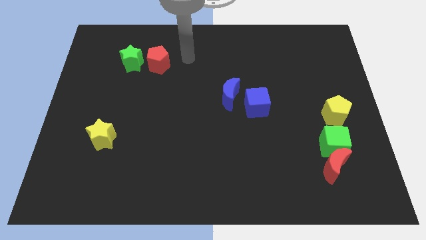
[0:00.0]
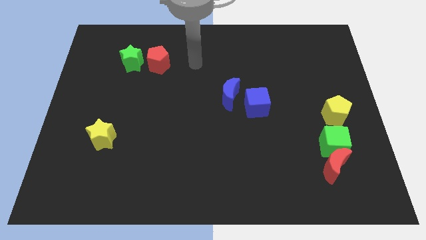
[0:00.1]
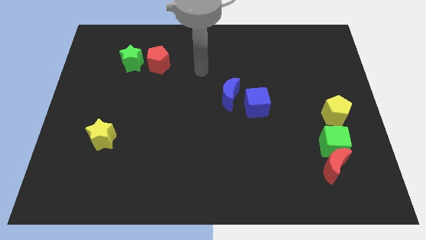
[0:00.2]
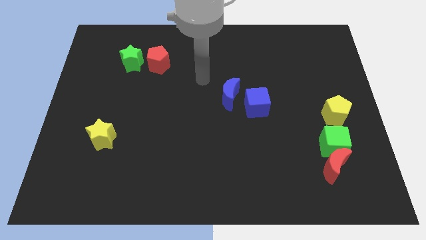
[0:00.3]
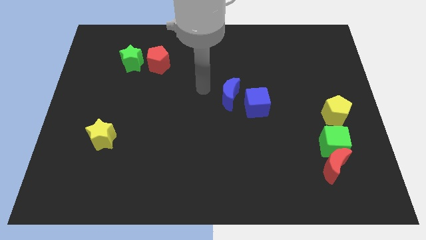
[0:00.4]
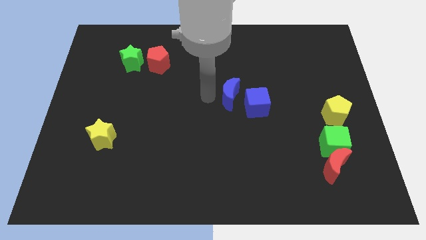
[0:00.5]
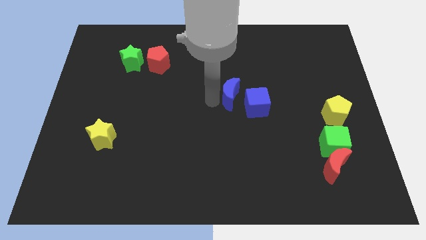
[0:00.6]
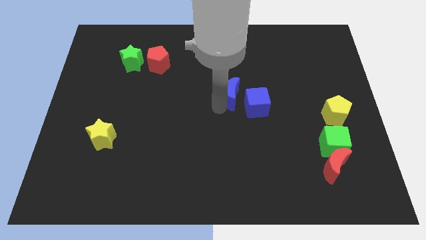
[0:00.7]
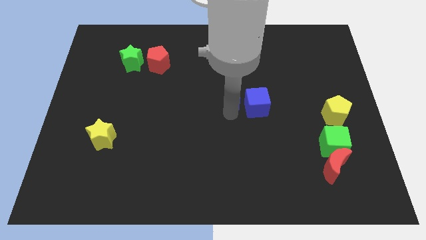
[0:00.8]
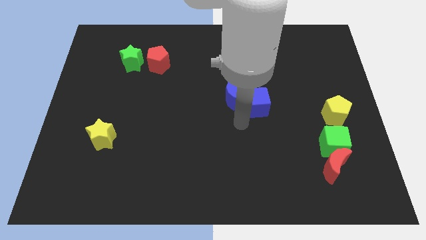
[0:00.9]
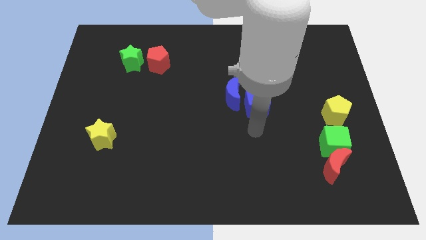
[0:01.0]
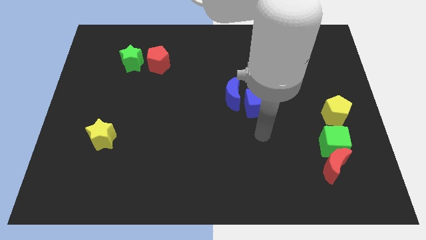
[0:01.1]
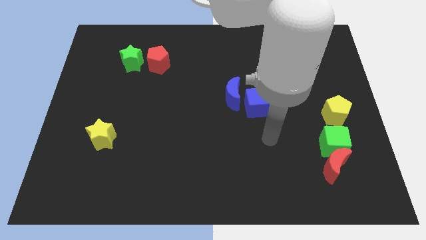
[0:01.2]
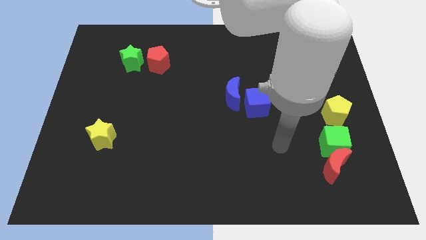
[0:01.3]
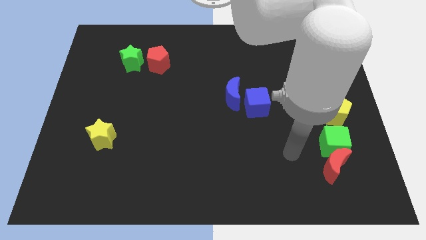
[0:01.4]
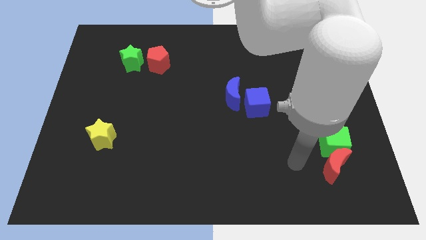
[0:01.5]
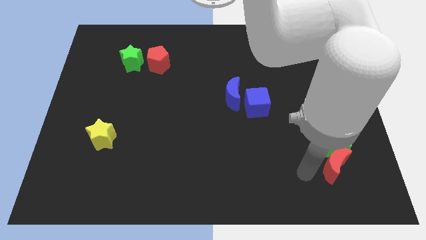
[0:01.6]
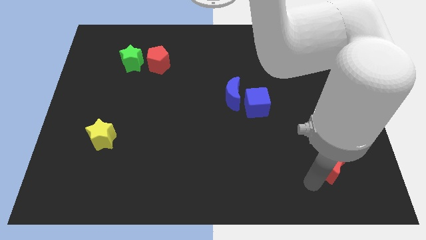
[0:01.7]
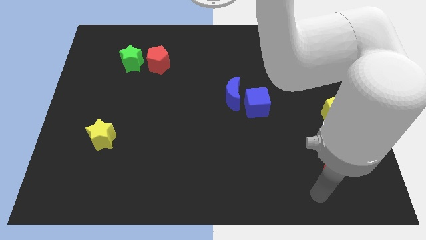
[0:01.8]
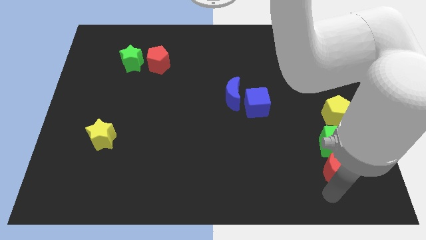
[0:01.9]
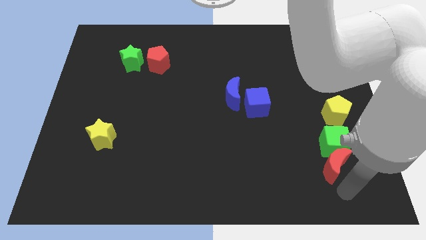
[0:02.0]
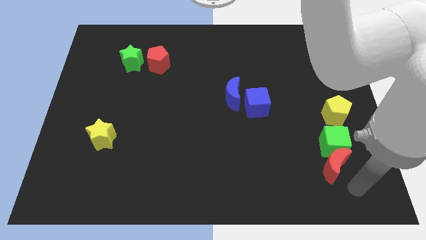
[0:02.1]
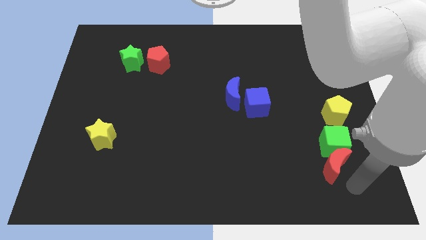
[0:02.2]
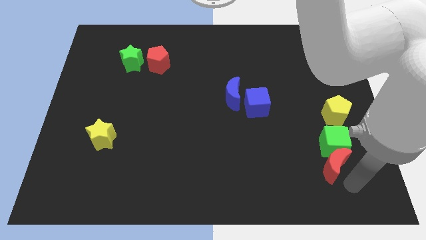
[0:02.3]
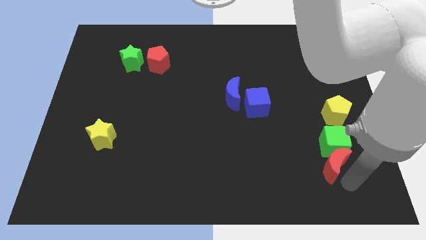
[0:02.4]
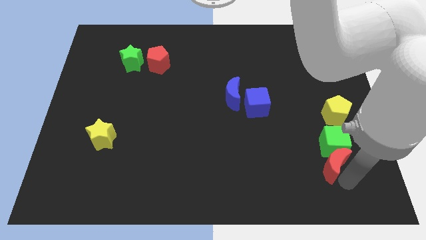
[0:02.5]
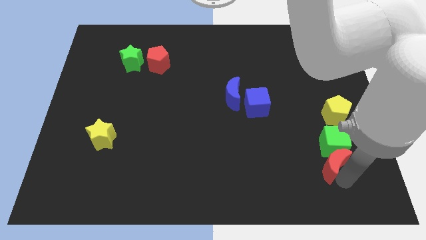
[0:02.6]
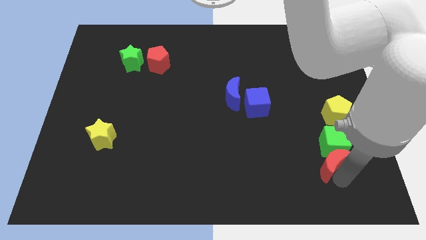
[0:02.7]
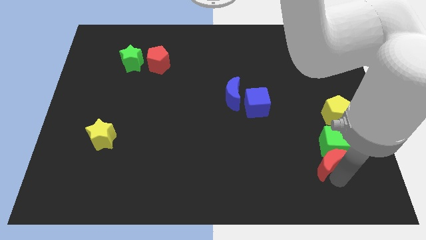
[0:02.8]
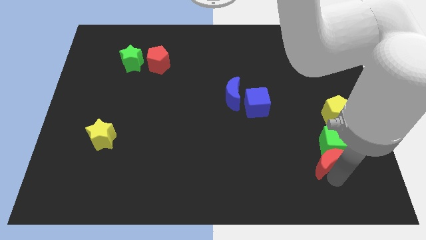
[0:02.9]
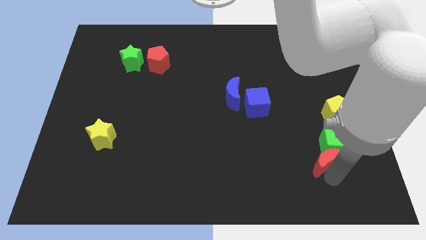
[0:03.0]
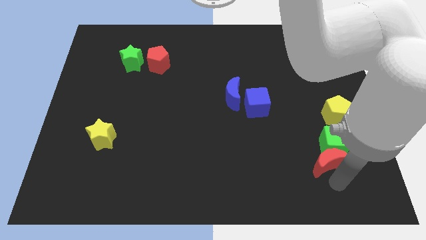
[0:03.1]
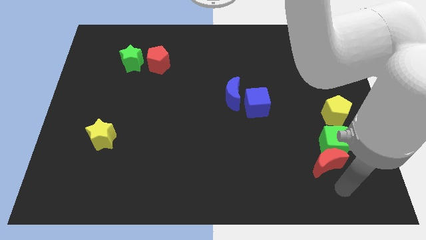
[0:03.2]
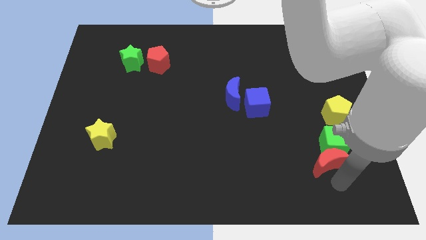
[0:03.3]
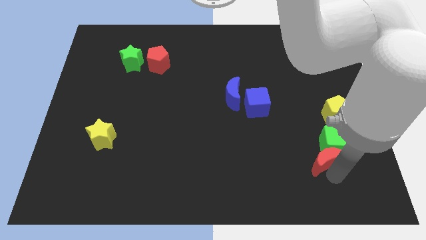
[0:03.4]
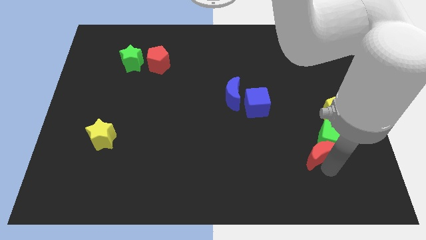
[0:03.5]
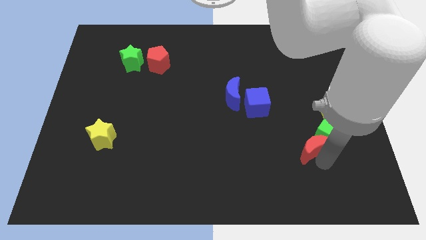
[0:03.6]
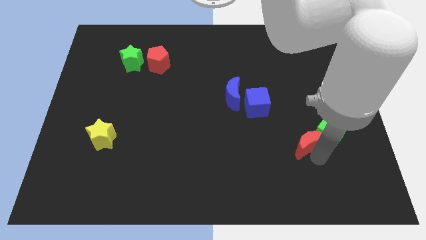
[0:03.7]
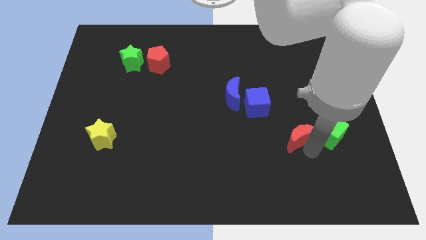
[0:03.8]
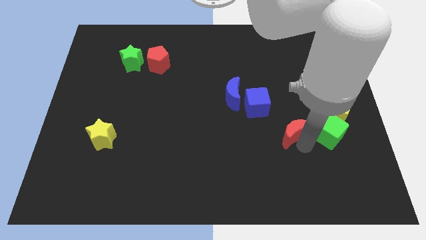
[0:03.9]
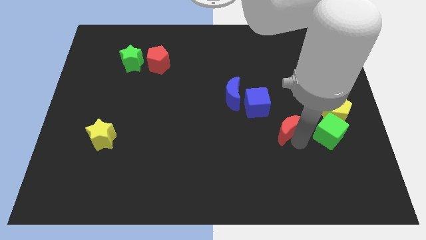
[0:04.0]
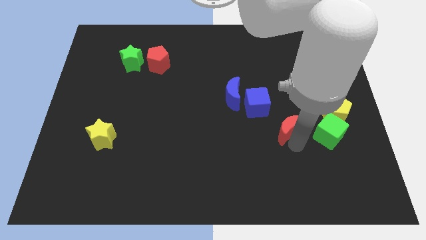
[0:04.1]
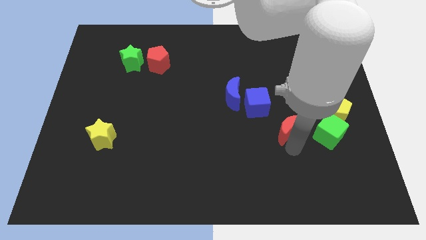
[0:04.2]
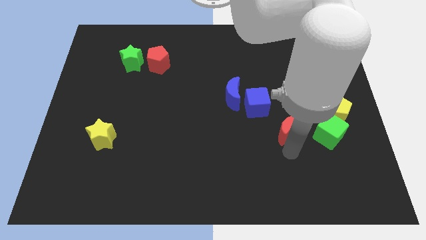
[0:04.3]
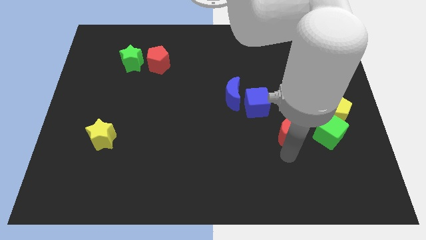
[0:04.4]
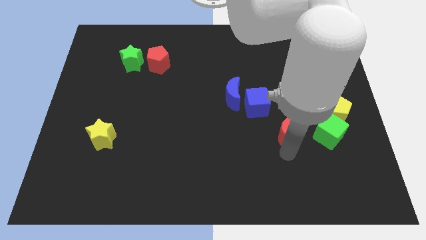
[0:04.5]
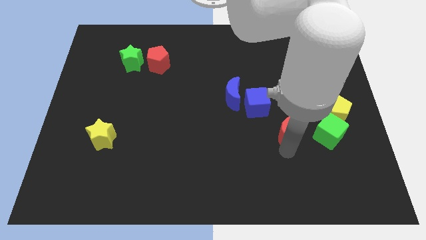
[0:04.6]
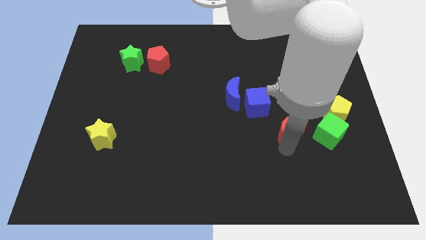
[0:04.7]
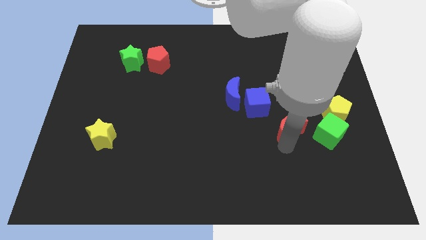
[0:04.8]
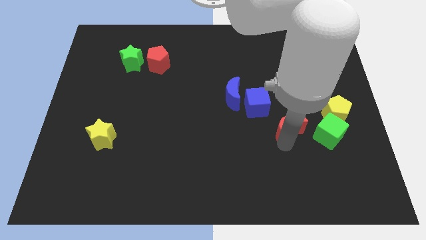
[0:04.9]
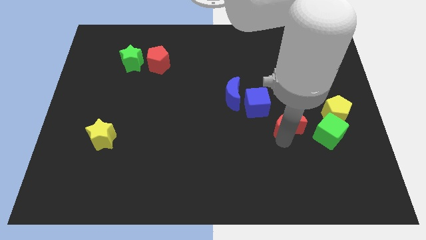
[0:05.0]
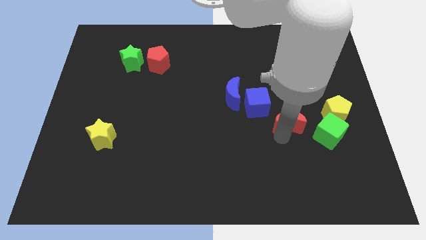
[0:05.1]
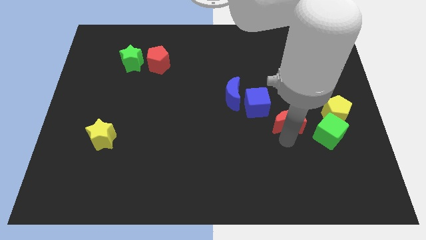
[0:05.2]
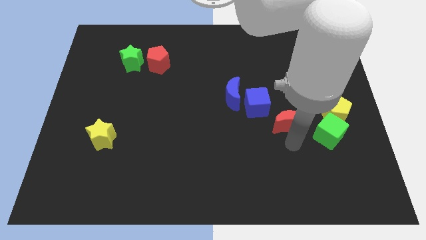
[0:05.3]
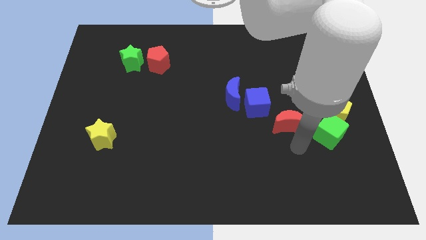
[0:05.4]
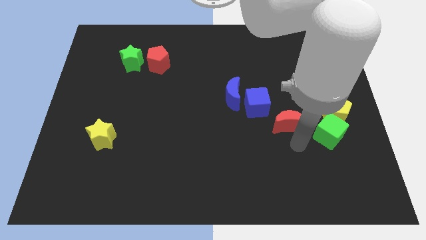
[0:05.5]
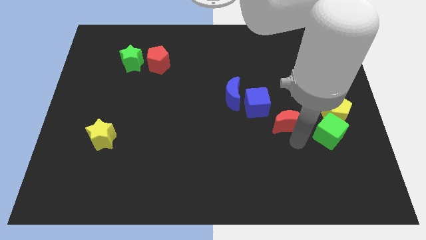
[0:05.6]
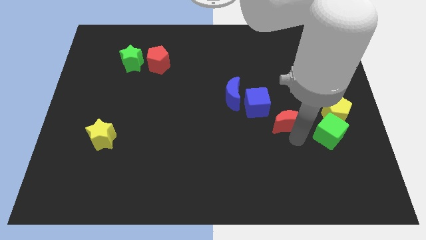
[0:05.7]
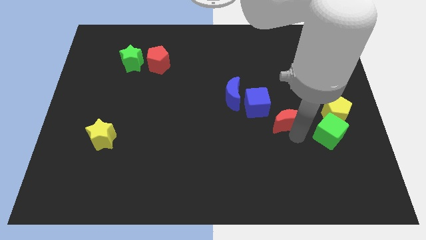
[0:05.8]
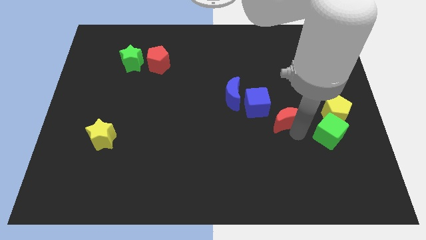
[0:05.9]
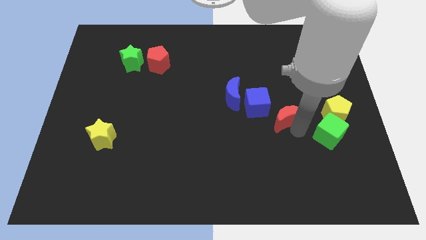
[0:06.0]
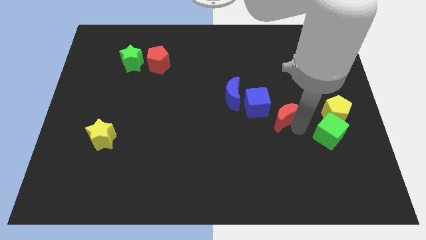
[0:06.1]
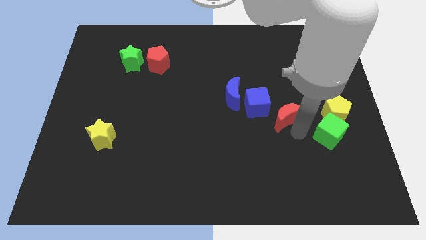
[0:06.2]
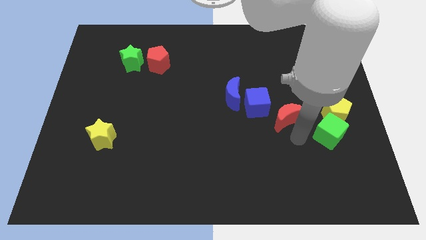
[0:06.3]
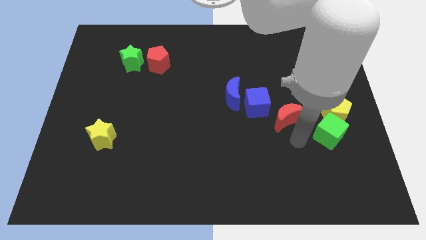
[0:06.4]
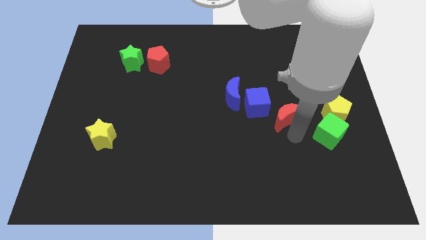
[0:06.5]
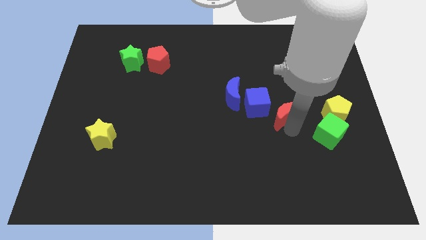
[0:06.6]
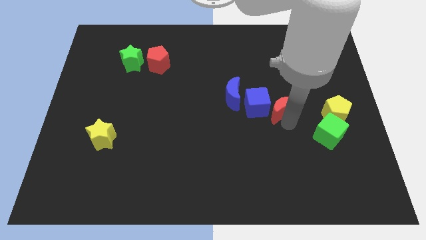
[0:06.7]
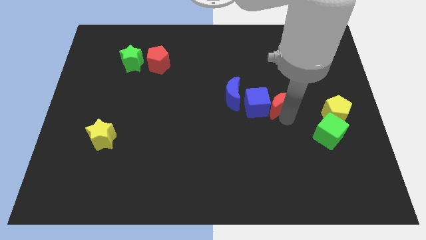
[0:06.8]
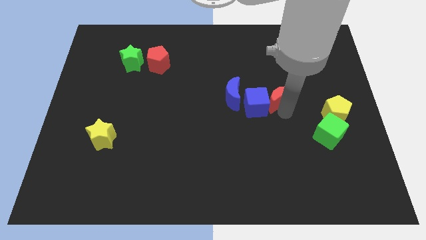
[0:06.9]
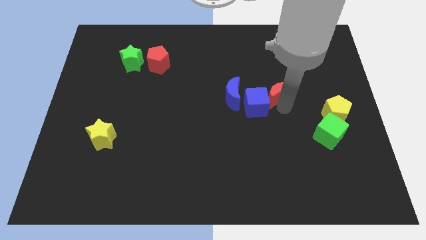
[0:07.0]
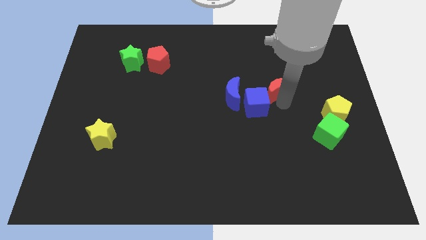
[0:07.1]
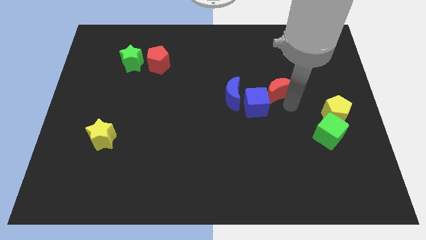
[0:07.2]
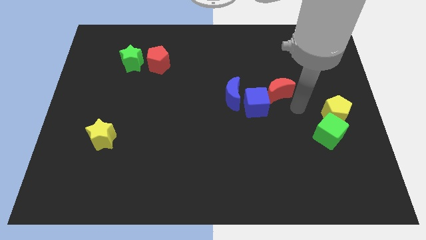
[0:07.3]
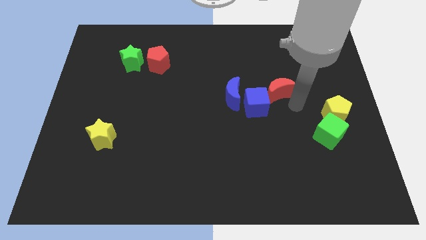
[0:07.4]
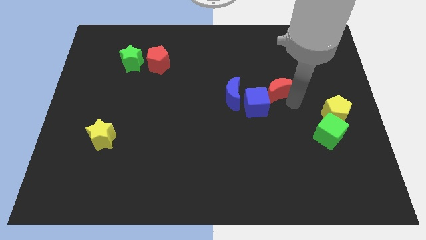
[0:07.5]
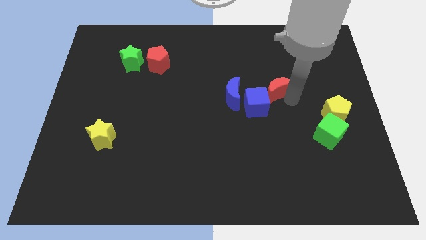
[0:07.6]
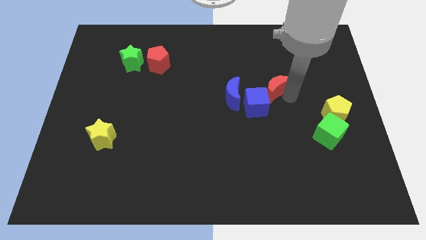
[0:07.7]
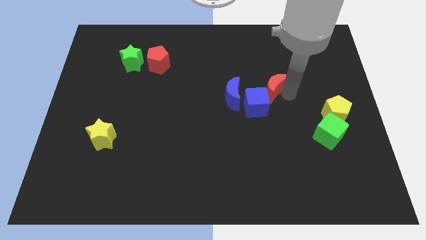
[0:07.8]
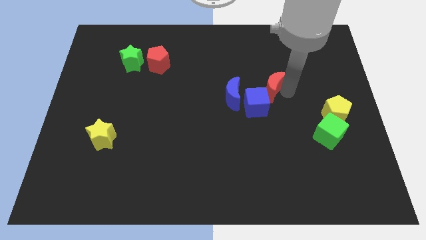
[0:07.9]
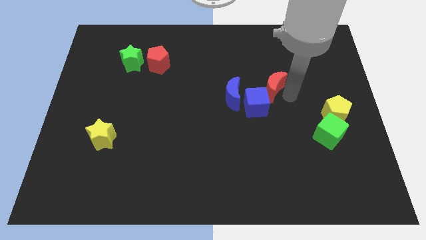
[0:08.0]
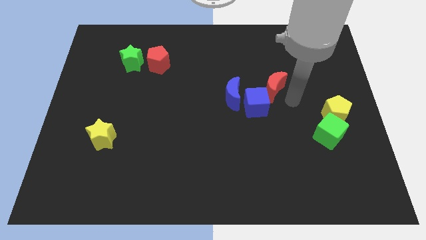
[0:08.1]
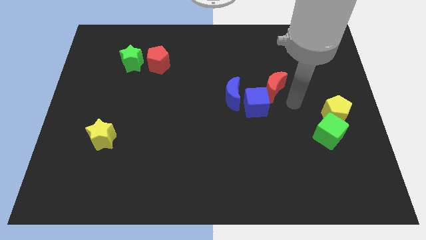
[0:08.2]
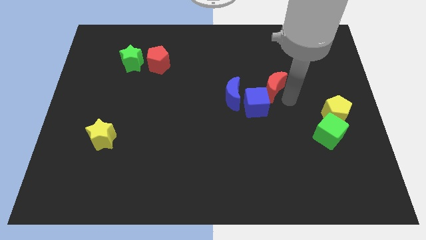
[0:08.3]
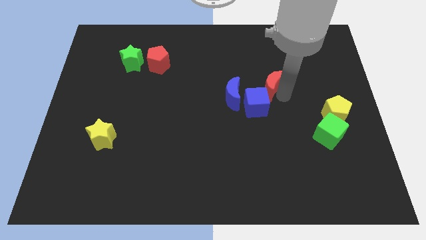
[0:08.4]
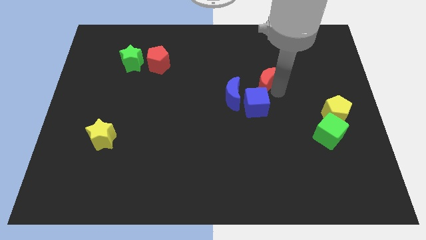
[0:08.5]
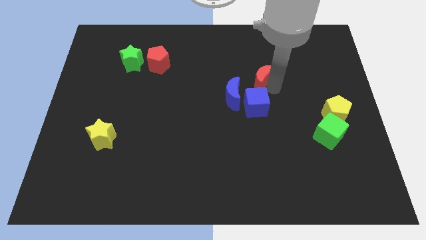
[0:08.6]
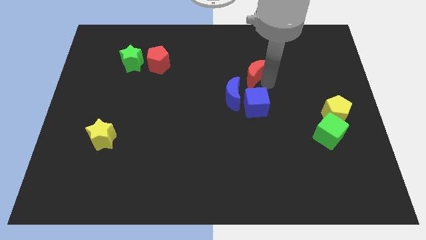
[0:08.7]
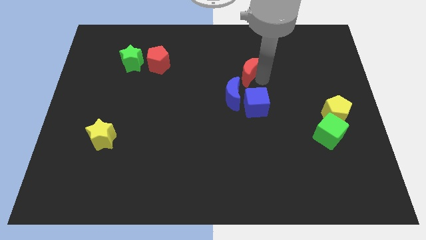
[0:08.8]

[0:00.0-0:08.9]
move the red moon above the blue moon
